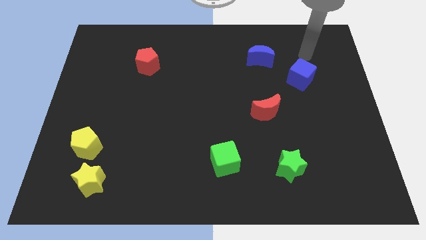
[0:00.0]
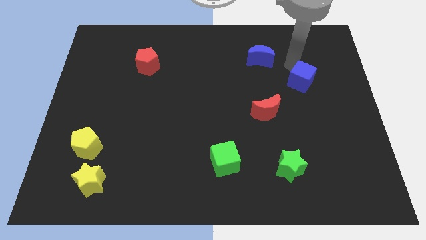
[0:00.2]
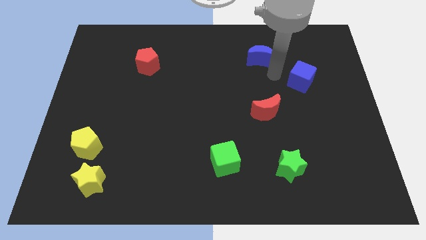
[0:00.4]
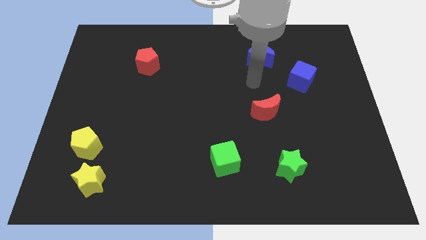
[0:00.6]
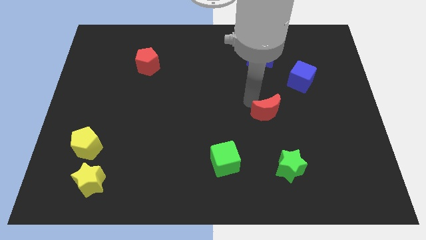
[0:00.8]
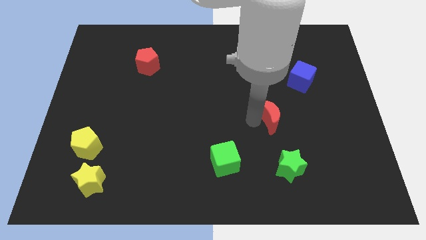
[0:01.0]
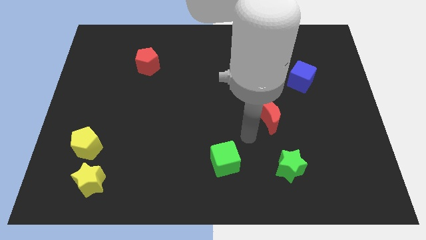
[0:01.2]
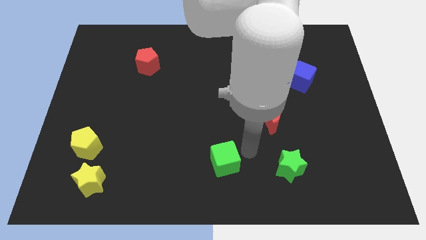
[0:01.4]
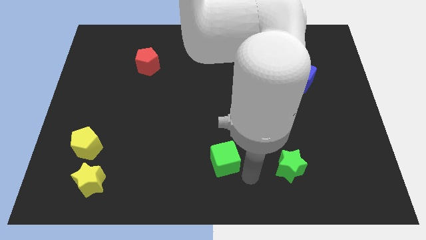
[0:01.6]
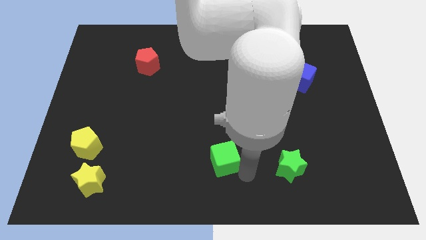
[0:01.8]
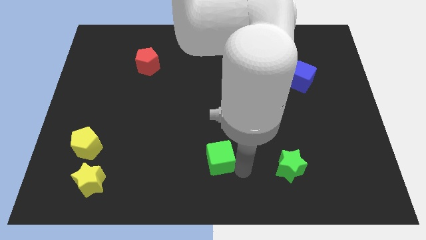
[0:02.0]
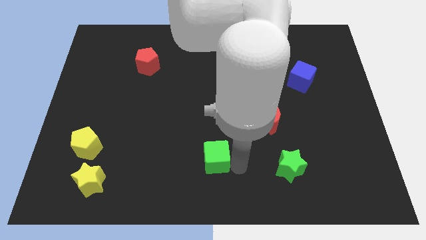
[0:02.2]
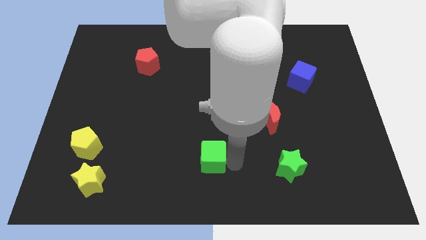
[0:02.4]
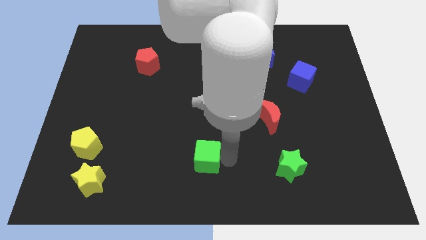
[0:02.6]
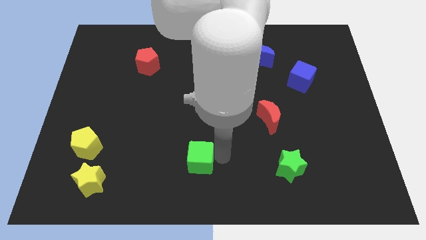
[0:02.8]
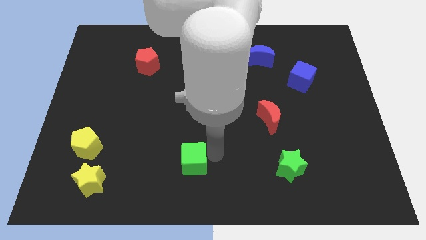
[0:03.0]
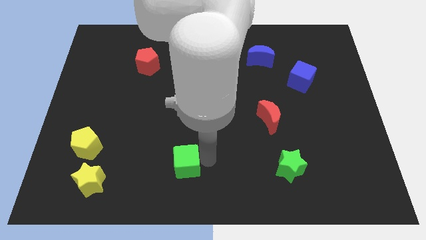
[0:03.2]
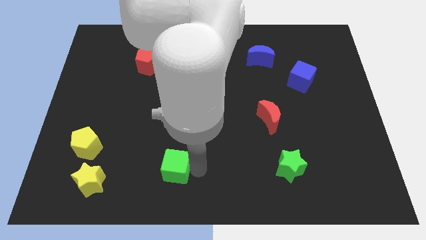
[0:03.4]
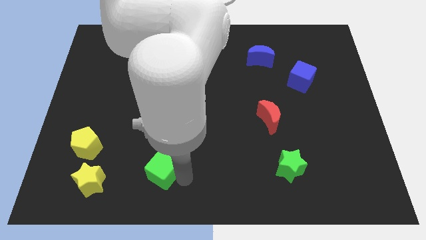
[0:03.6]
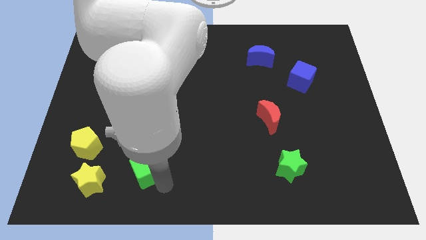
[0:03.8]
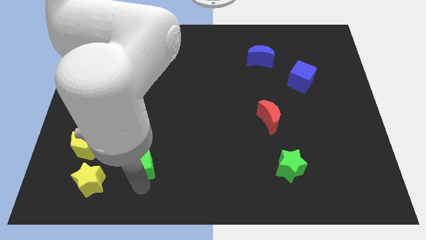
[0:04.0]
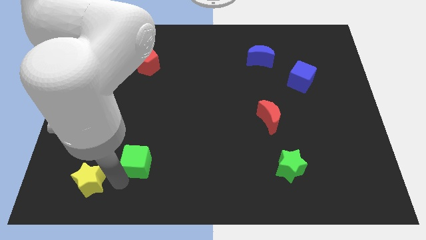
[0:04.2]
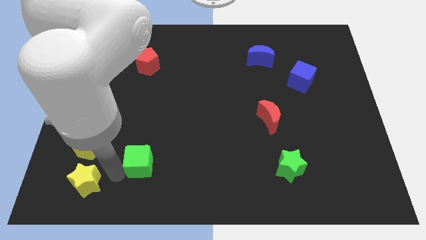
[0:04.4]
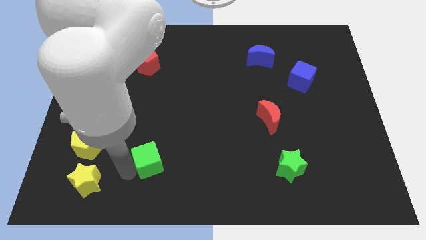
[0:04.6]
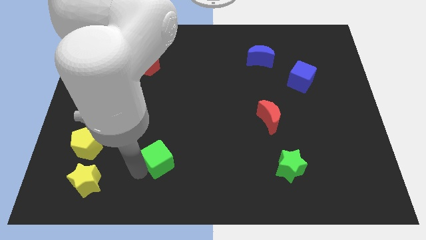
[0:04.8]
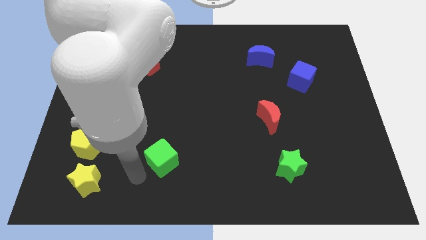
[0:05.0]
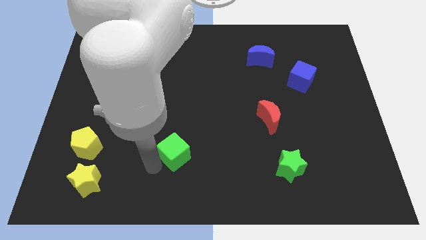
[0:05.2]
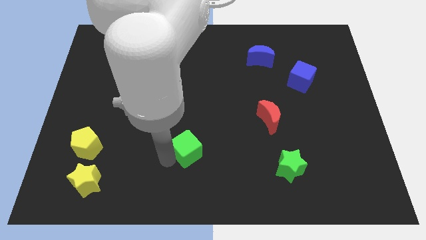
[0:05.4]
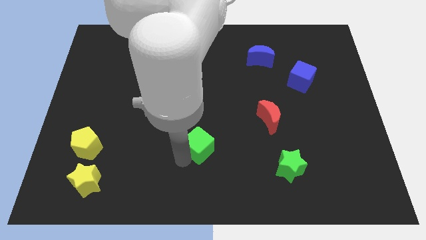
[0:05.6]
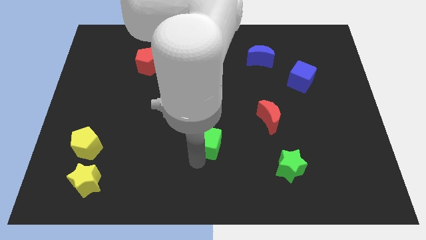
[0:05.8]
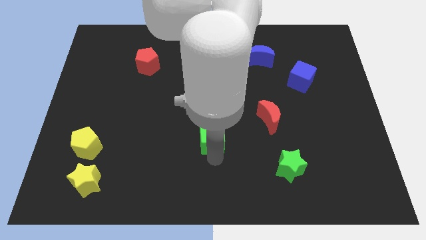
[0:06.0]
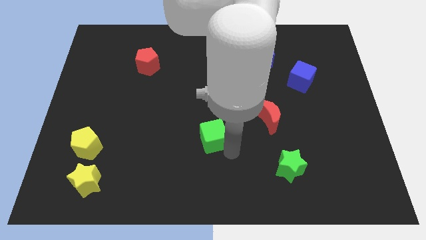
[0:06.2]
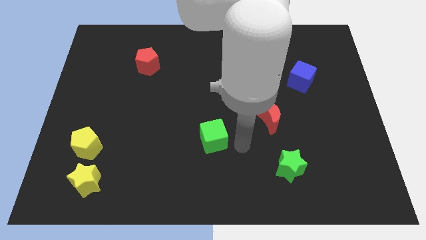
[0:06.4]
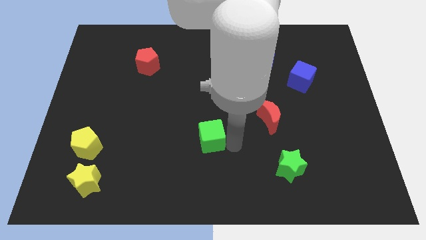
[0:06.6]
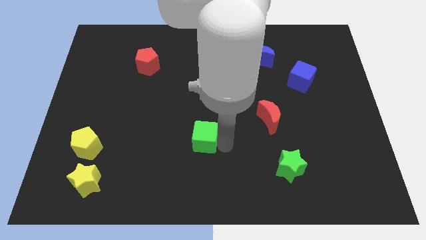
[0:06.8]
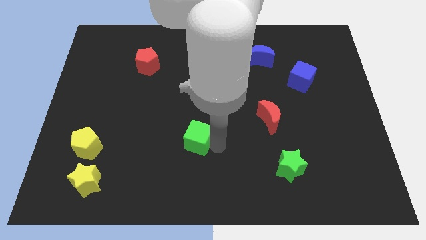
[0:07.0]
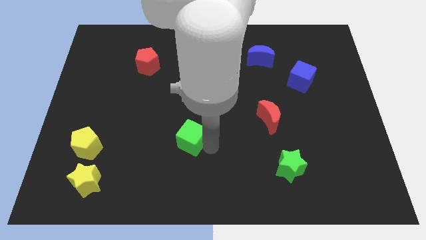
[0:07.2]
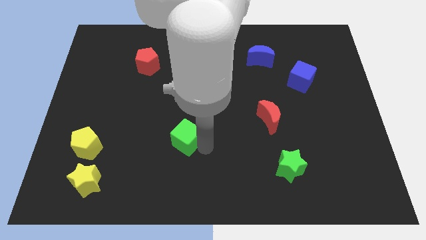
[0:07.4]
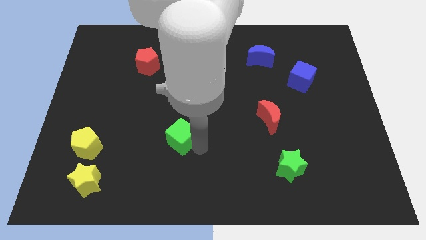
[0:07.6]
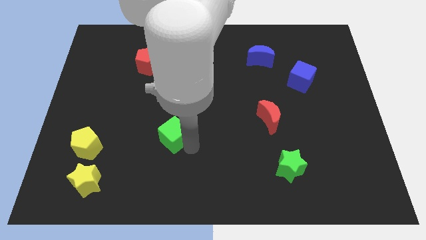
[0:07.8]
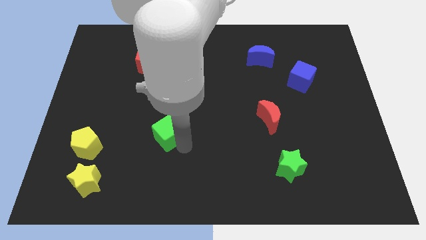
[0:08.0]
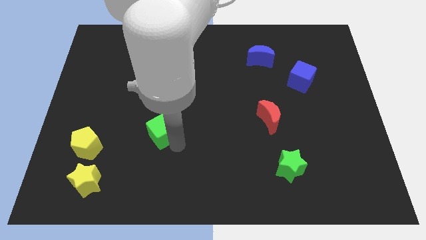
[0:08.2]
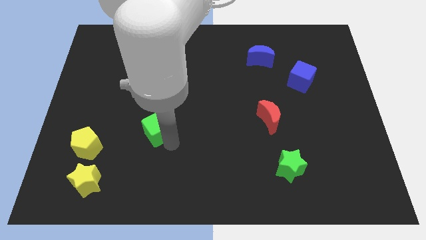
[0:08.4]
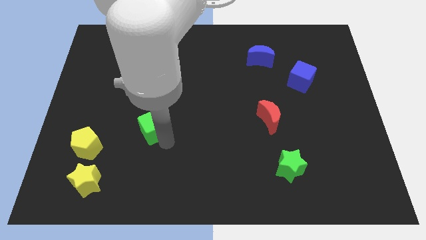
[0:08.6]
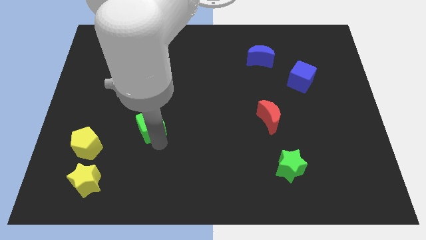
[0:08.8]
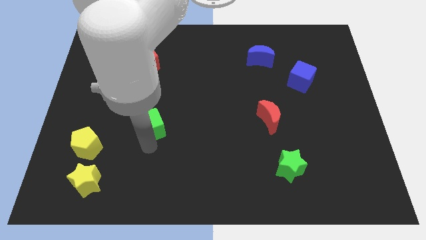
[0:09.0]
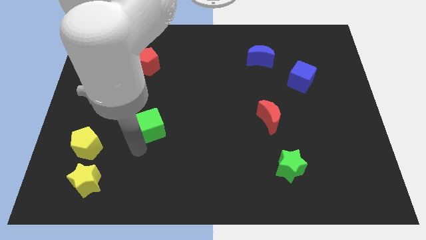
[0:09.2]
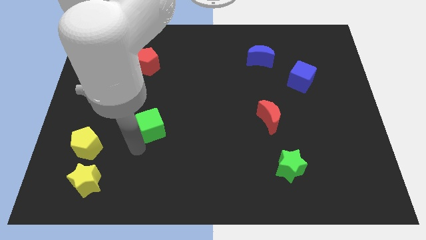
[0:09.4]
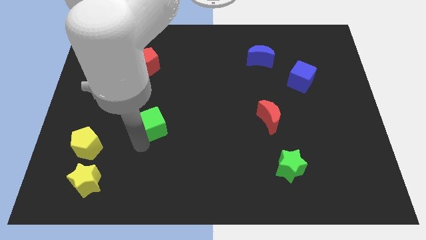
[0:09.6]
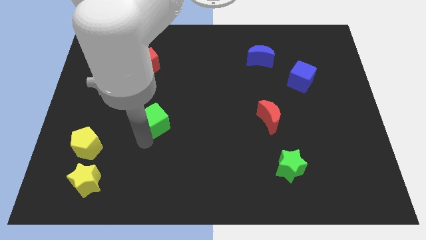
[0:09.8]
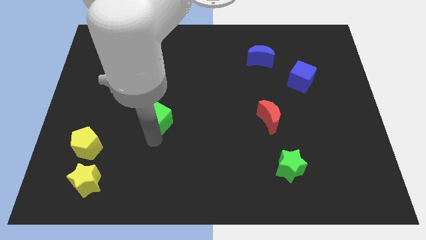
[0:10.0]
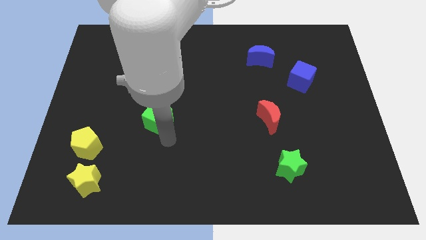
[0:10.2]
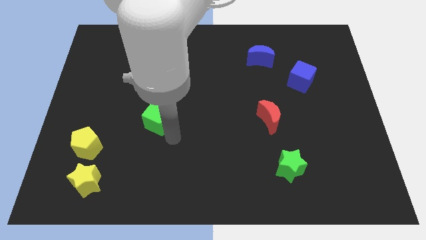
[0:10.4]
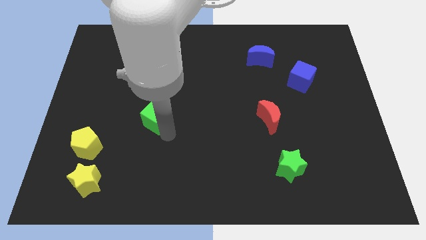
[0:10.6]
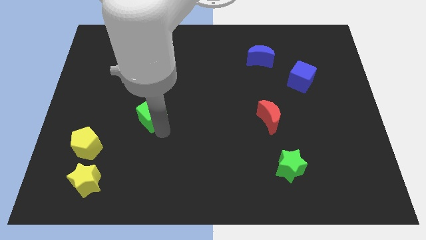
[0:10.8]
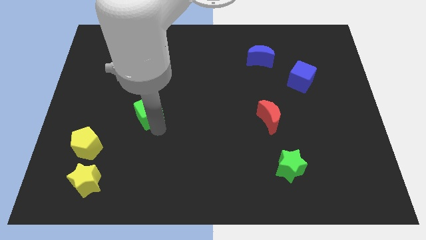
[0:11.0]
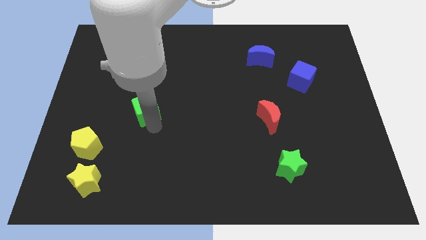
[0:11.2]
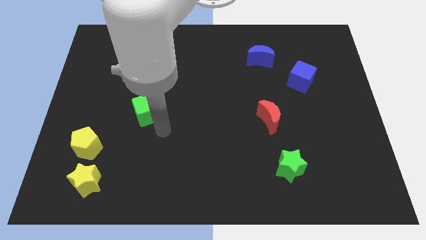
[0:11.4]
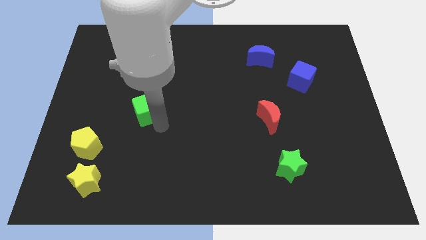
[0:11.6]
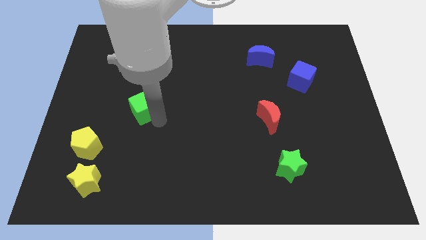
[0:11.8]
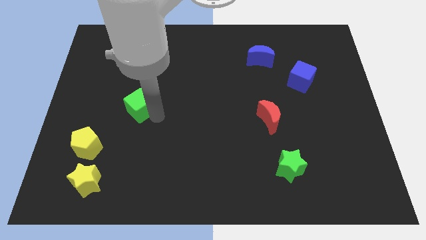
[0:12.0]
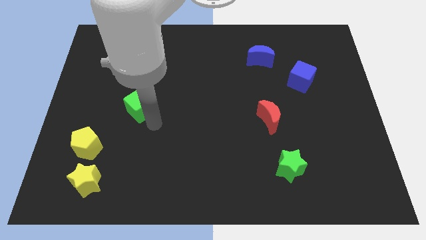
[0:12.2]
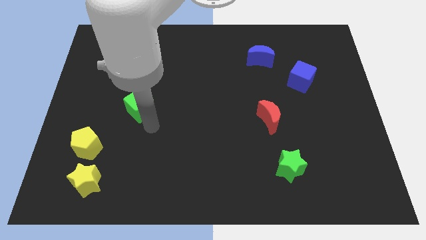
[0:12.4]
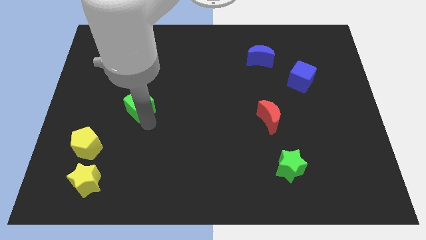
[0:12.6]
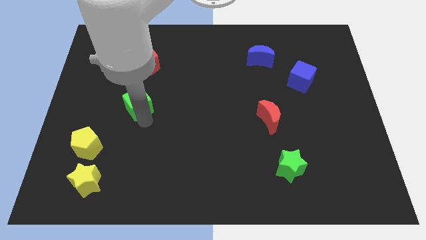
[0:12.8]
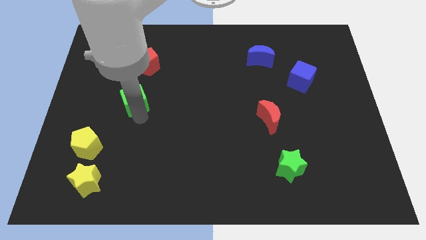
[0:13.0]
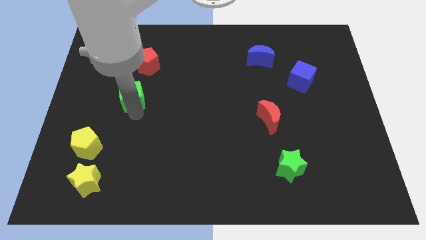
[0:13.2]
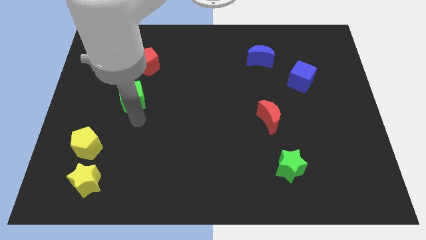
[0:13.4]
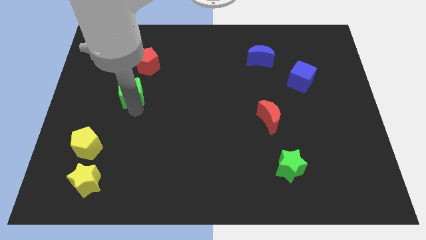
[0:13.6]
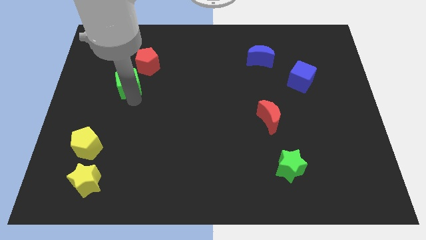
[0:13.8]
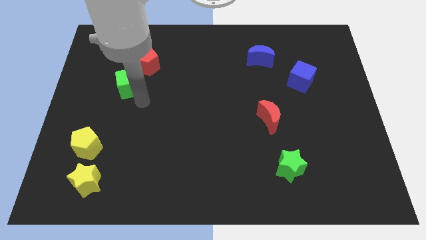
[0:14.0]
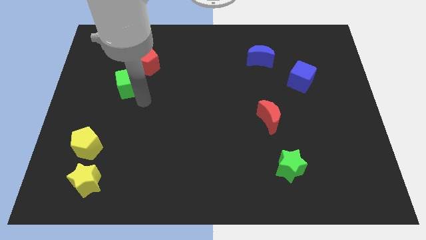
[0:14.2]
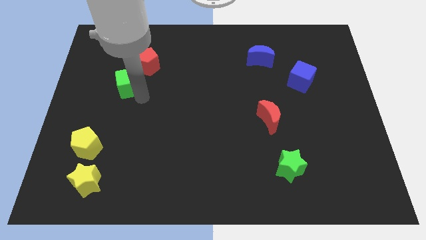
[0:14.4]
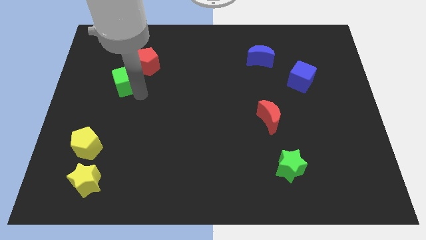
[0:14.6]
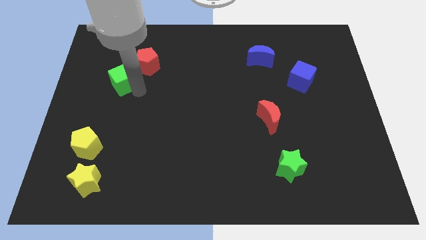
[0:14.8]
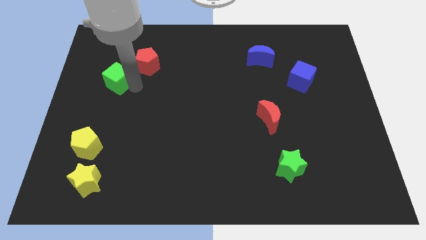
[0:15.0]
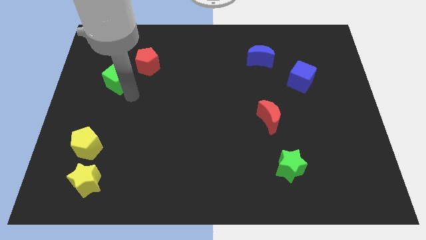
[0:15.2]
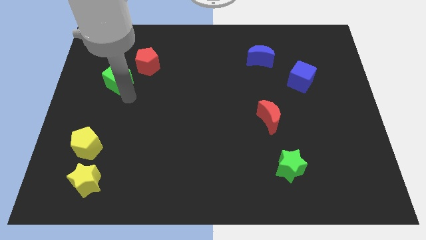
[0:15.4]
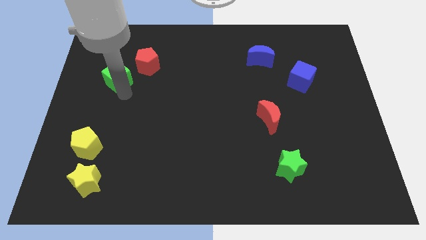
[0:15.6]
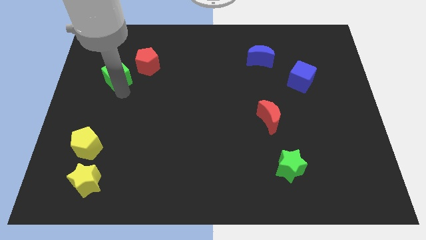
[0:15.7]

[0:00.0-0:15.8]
put the green cube left of the red pentagon

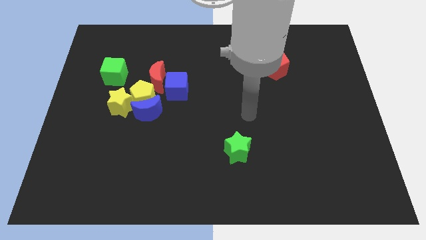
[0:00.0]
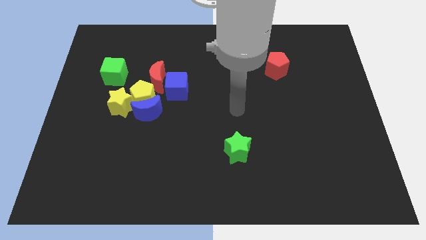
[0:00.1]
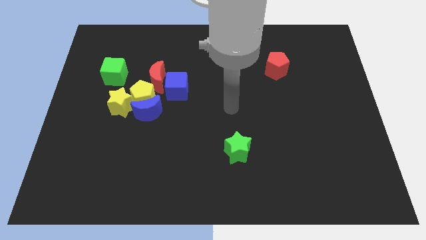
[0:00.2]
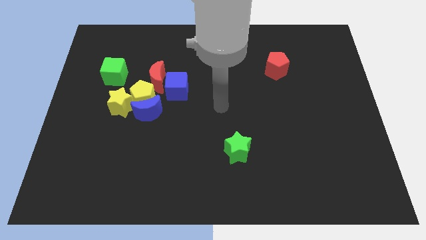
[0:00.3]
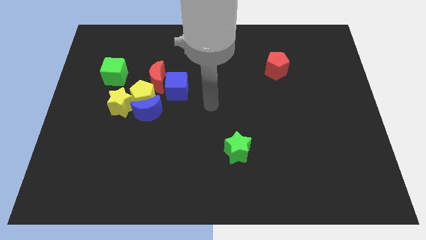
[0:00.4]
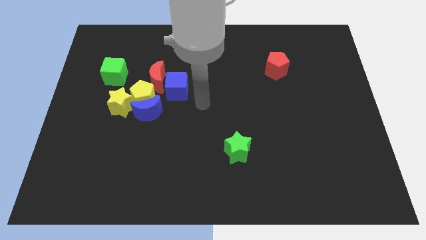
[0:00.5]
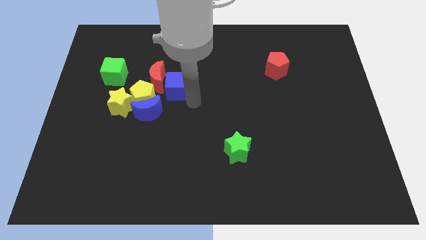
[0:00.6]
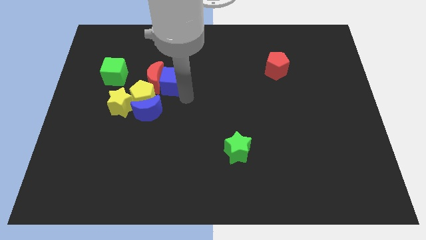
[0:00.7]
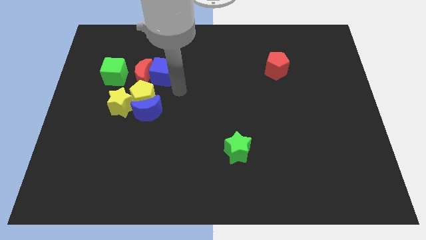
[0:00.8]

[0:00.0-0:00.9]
put the red moon to the top left of the yellow pentagon
